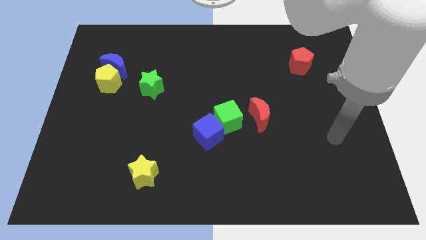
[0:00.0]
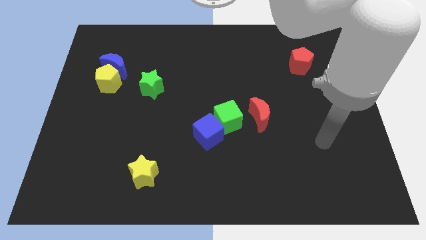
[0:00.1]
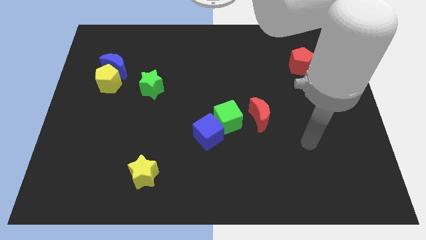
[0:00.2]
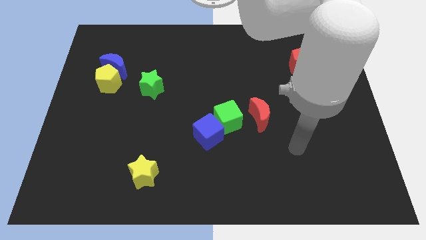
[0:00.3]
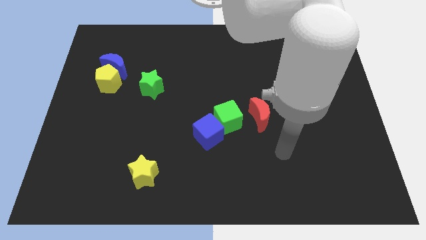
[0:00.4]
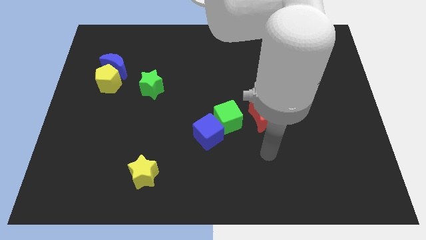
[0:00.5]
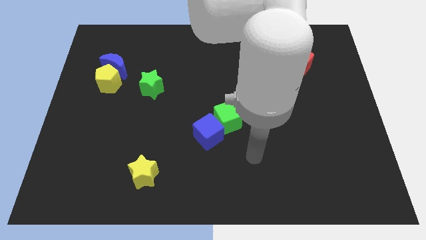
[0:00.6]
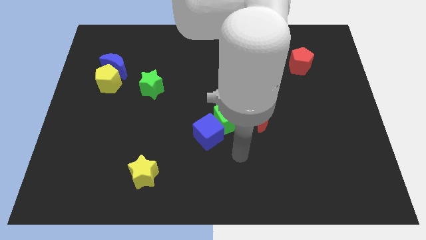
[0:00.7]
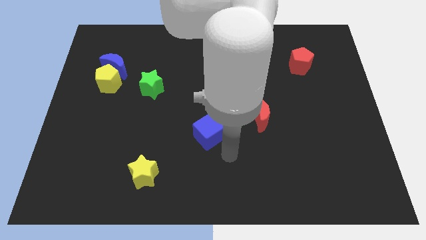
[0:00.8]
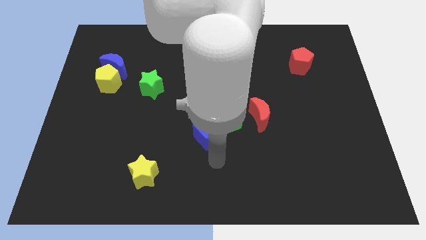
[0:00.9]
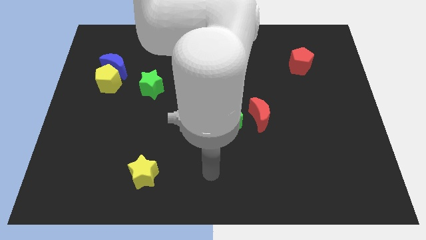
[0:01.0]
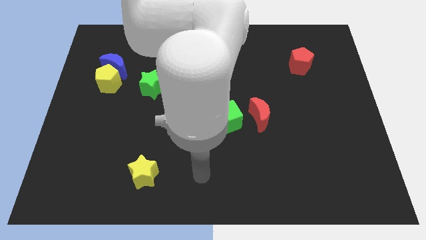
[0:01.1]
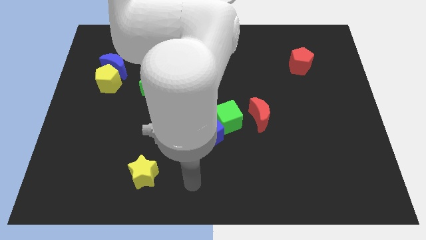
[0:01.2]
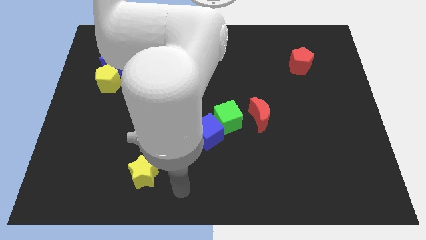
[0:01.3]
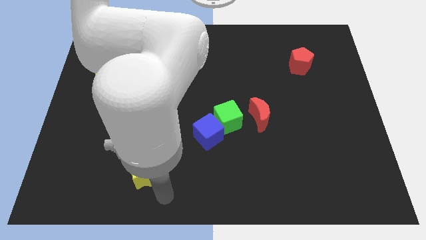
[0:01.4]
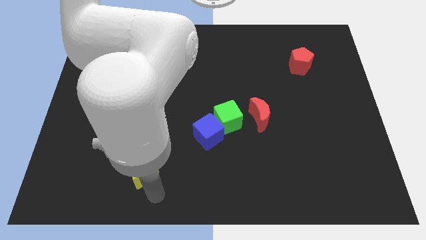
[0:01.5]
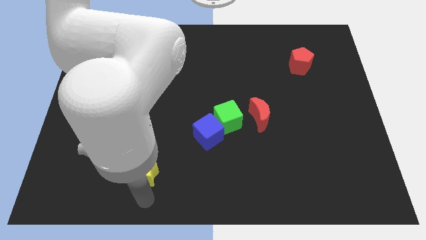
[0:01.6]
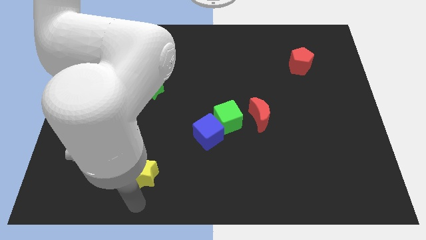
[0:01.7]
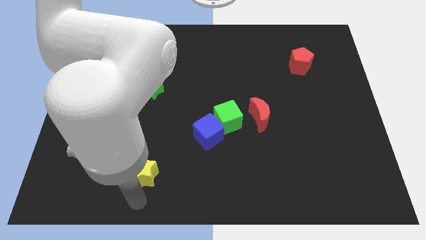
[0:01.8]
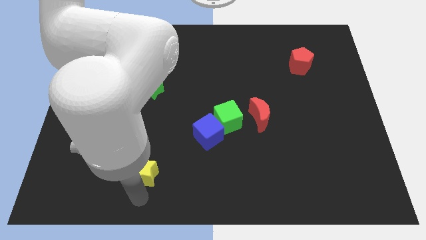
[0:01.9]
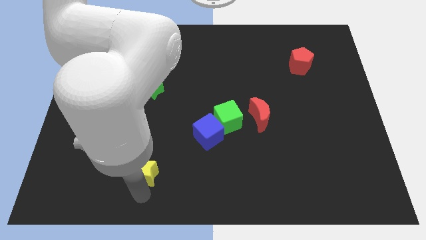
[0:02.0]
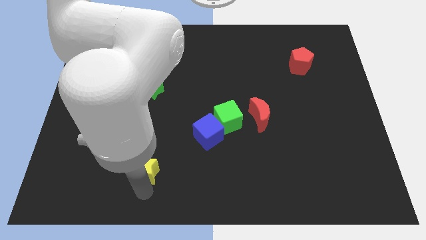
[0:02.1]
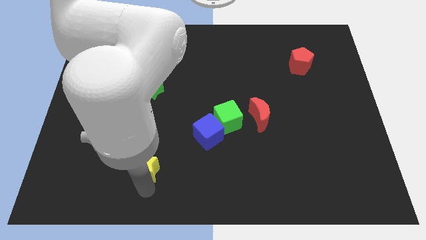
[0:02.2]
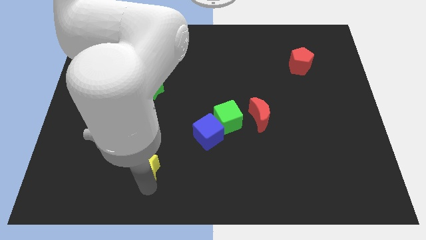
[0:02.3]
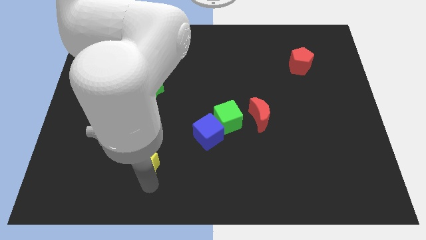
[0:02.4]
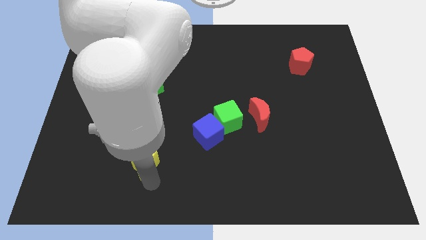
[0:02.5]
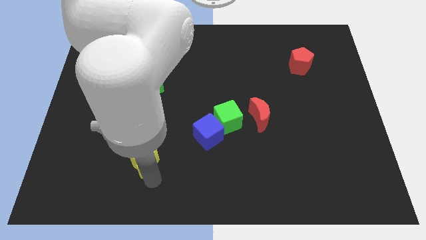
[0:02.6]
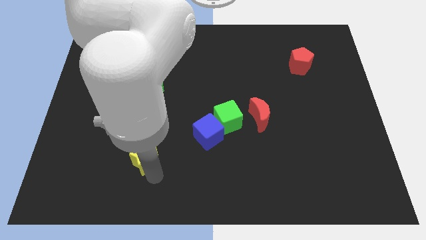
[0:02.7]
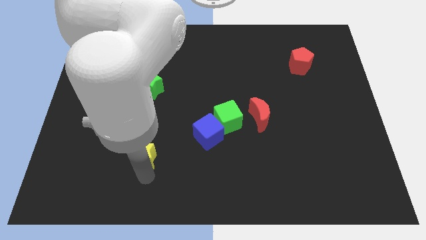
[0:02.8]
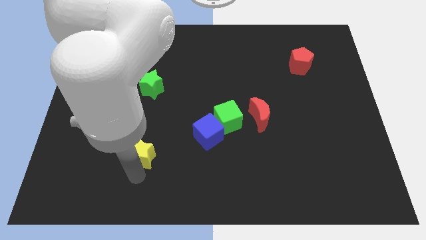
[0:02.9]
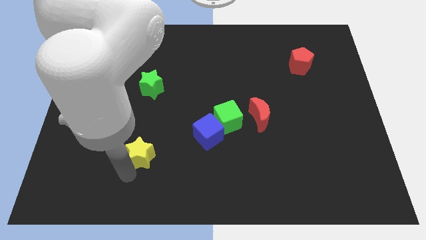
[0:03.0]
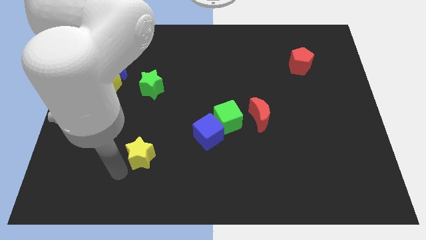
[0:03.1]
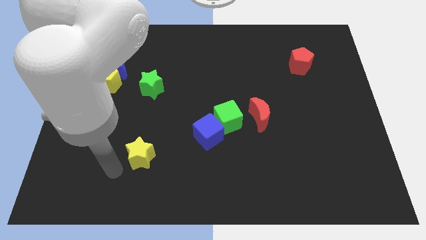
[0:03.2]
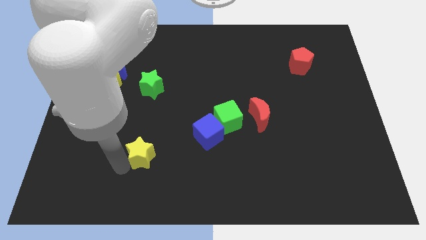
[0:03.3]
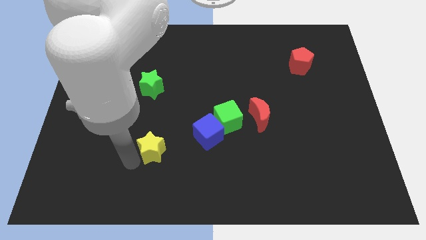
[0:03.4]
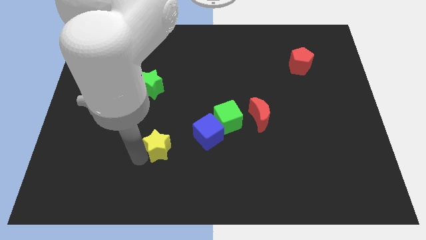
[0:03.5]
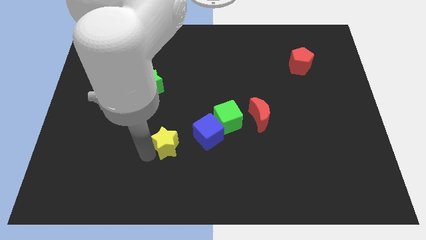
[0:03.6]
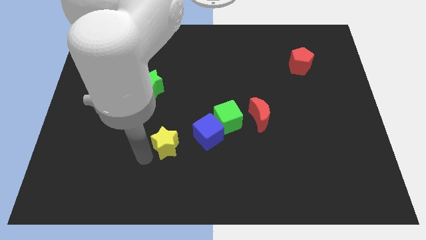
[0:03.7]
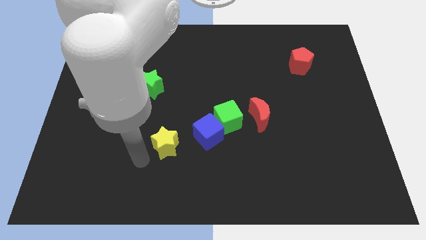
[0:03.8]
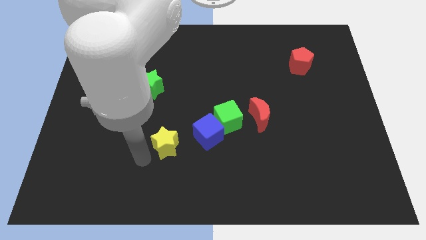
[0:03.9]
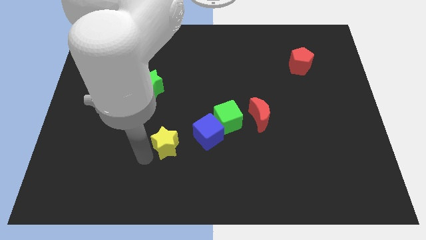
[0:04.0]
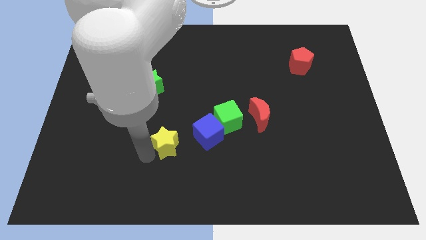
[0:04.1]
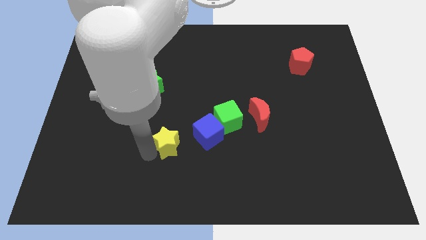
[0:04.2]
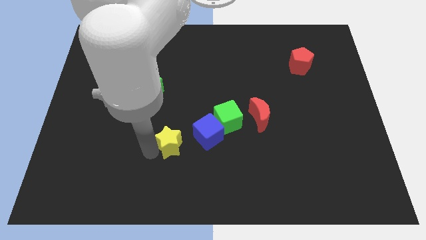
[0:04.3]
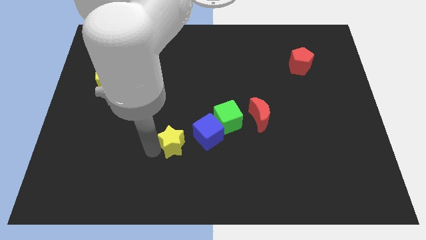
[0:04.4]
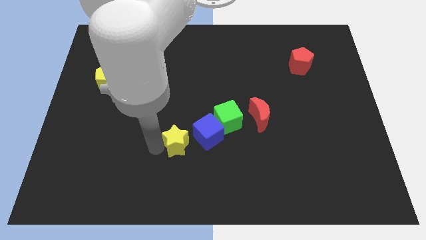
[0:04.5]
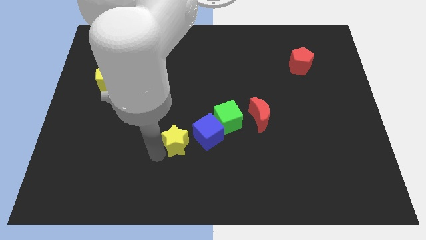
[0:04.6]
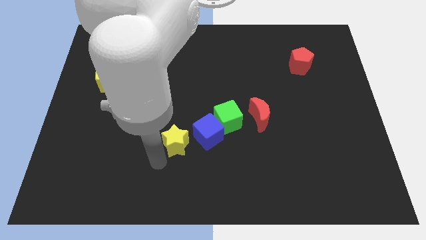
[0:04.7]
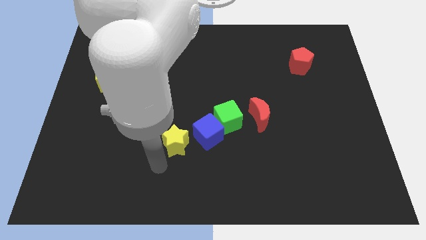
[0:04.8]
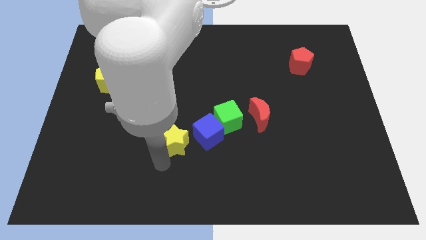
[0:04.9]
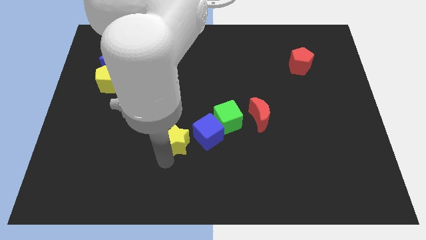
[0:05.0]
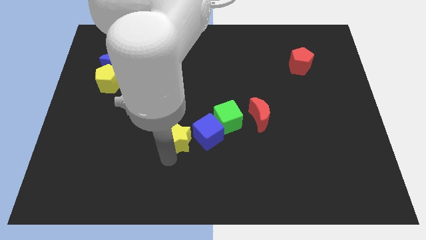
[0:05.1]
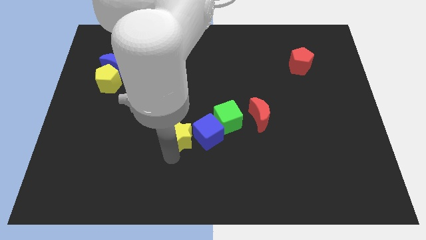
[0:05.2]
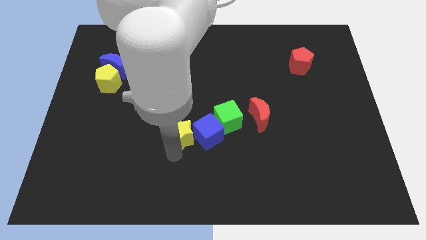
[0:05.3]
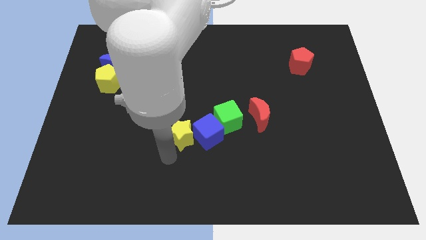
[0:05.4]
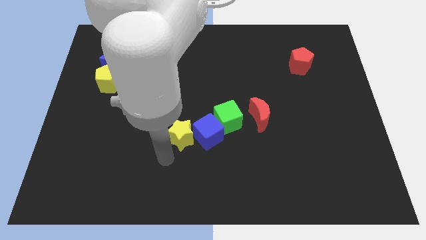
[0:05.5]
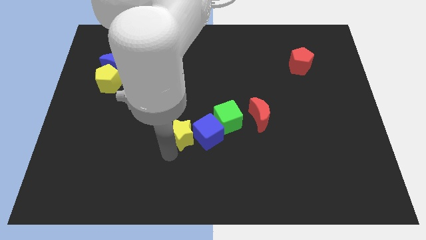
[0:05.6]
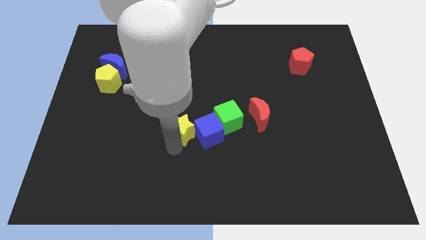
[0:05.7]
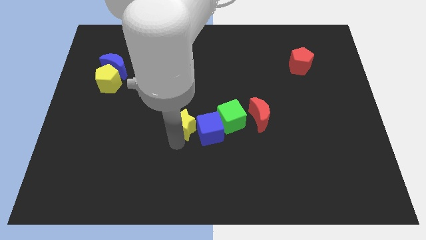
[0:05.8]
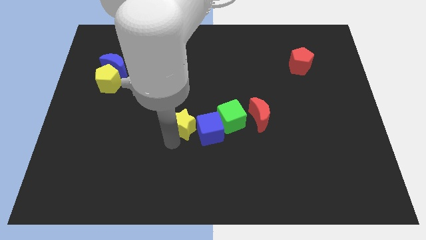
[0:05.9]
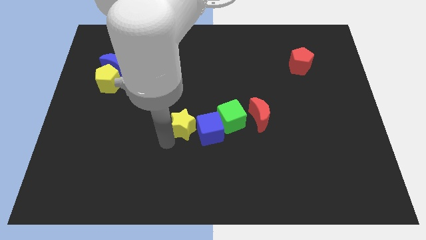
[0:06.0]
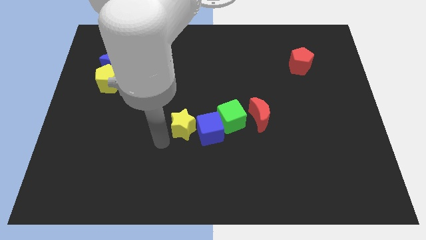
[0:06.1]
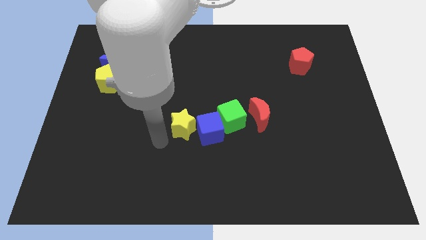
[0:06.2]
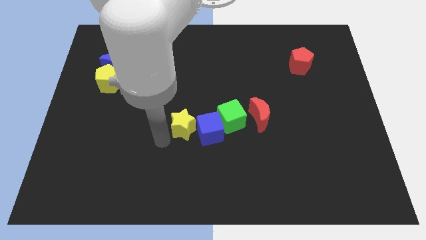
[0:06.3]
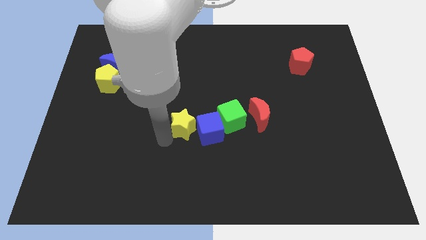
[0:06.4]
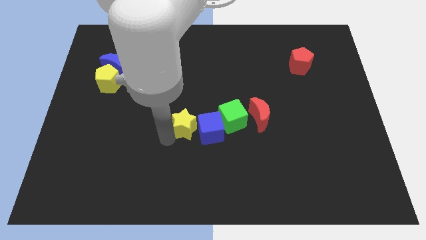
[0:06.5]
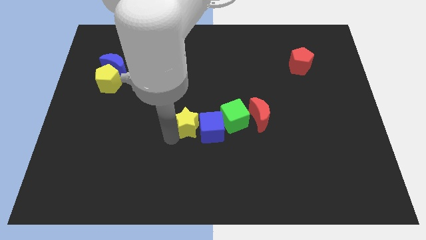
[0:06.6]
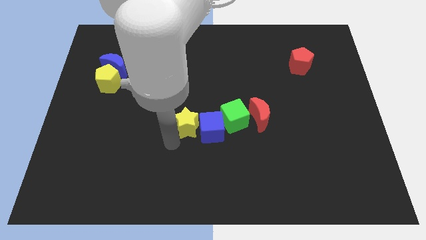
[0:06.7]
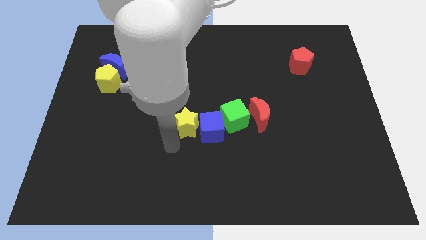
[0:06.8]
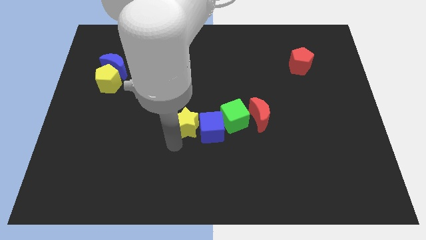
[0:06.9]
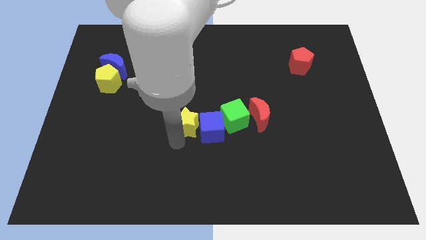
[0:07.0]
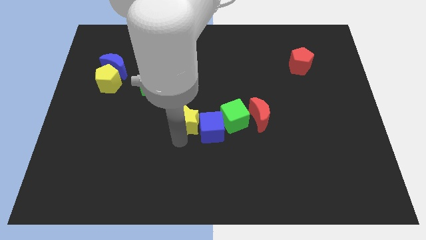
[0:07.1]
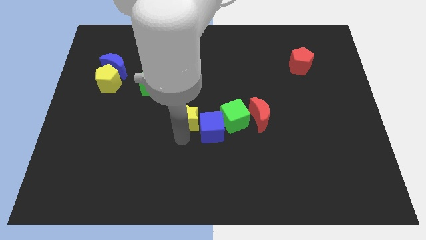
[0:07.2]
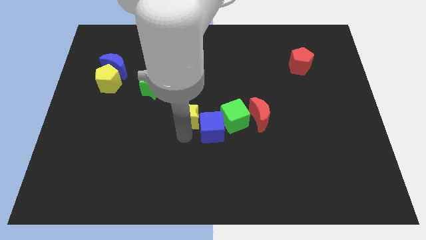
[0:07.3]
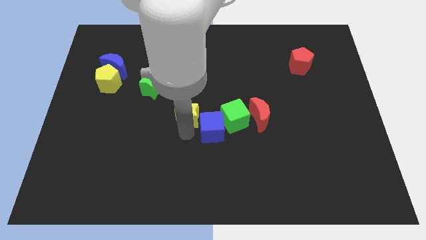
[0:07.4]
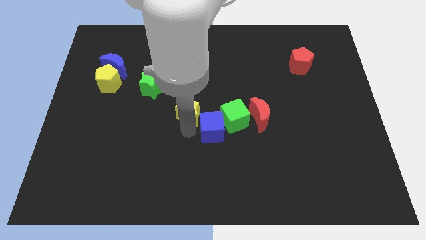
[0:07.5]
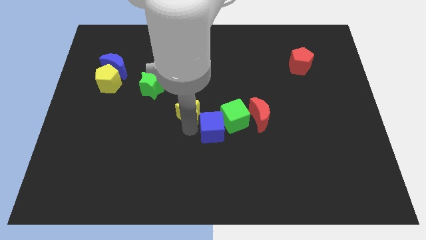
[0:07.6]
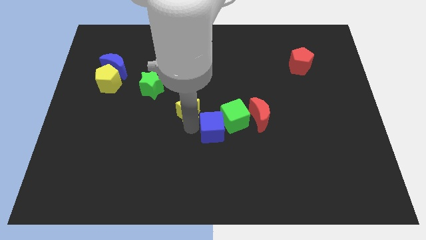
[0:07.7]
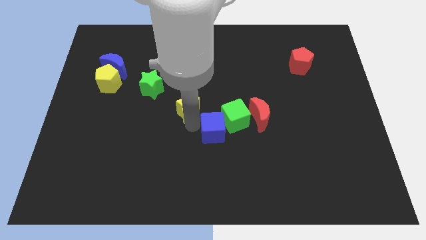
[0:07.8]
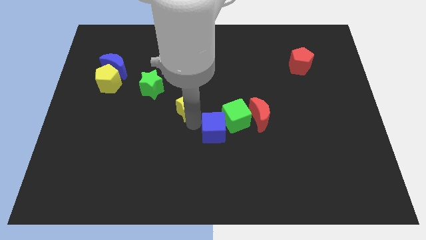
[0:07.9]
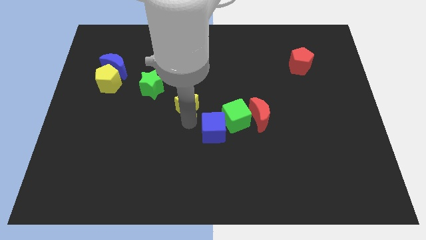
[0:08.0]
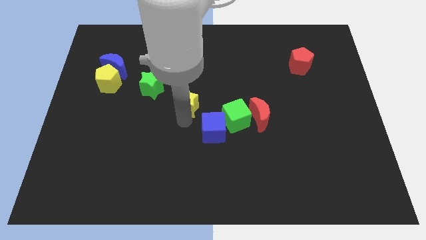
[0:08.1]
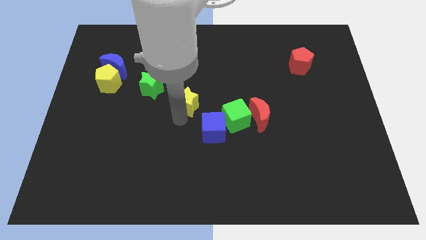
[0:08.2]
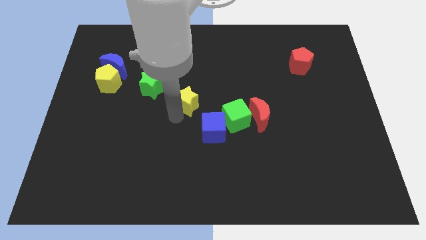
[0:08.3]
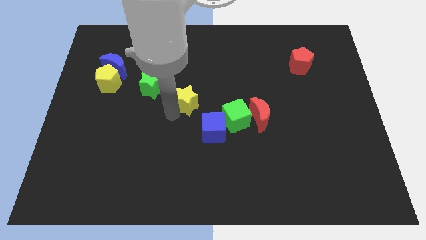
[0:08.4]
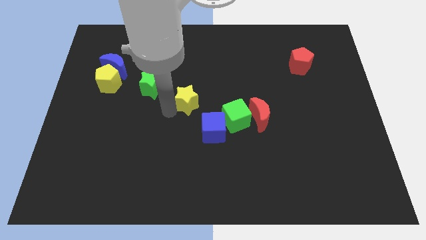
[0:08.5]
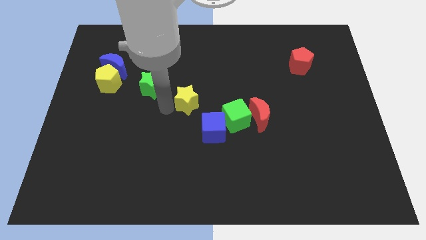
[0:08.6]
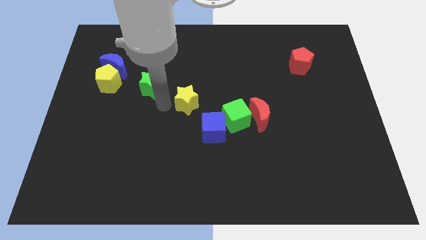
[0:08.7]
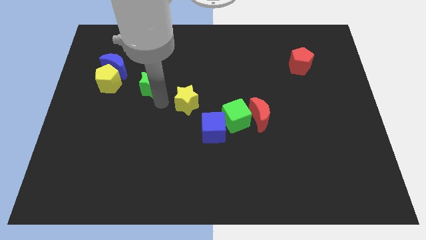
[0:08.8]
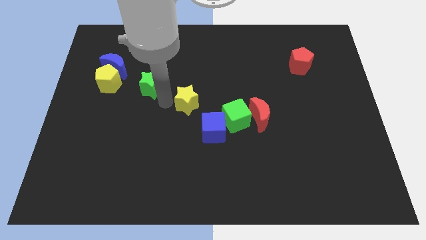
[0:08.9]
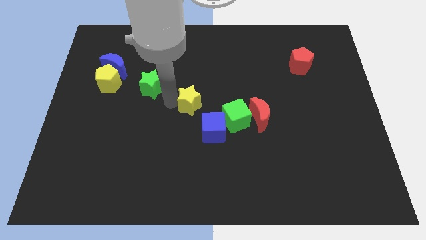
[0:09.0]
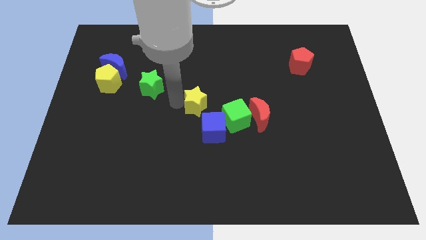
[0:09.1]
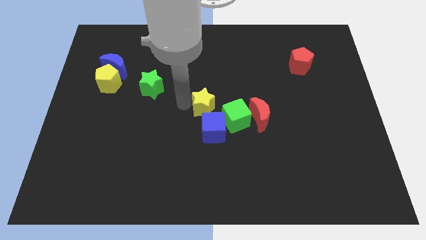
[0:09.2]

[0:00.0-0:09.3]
move the yellow star upwards and then to the right
